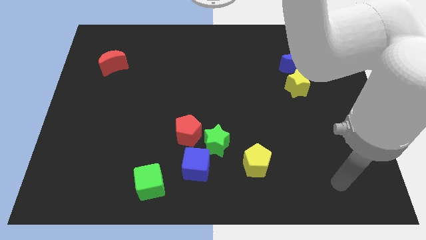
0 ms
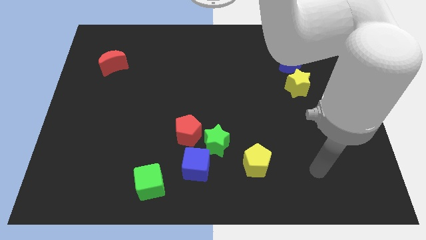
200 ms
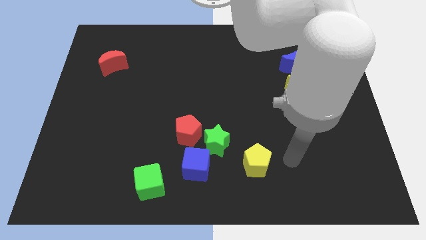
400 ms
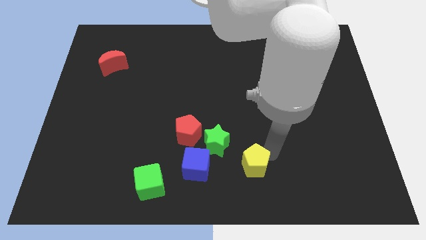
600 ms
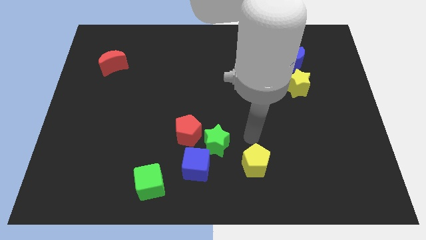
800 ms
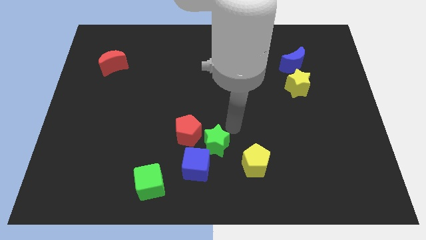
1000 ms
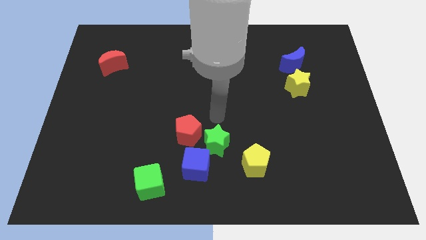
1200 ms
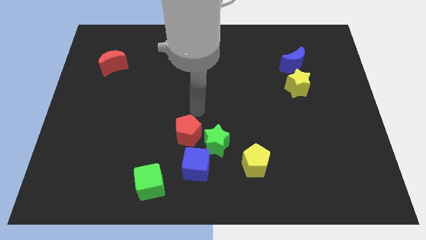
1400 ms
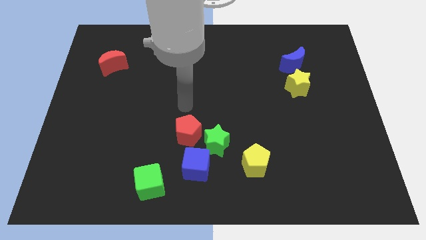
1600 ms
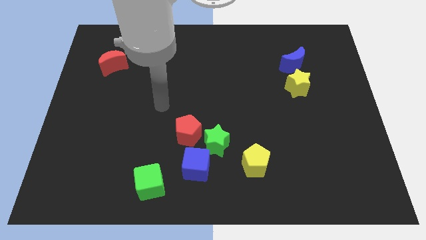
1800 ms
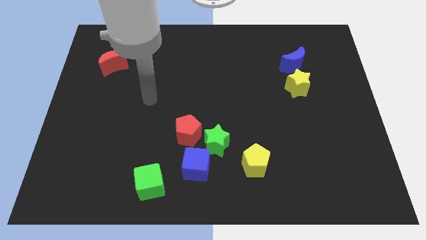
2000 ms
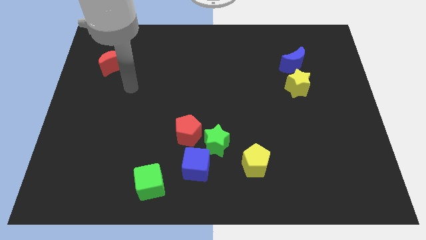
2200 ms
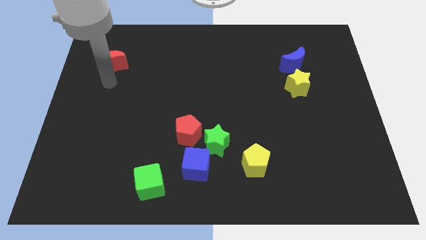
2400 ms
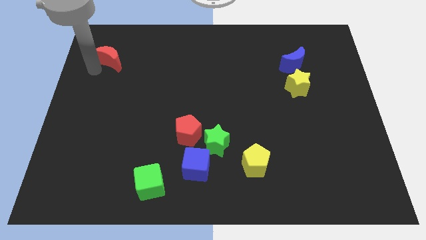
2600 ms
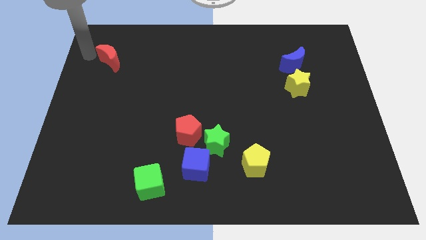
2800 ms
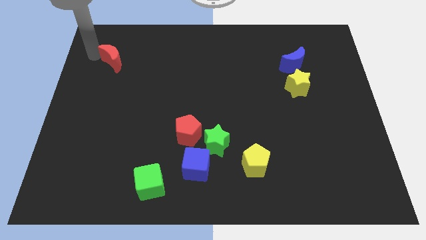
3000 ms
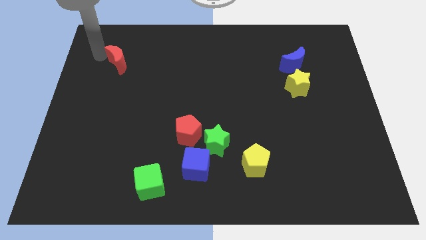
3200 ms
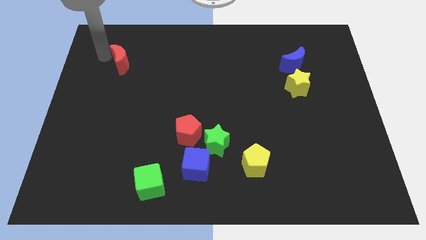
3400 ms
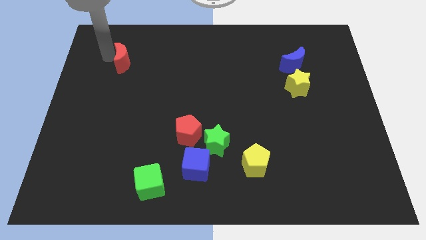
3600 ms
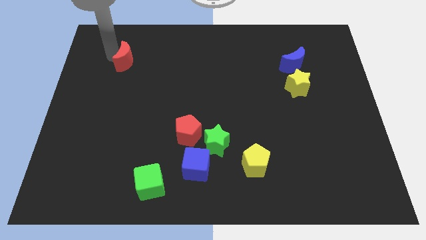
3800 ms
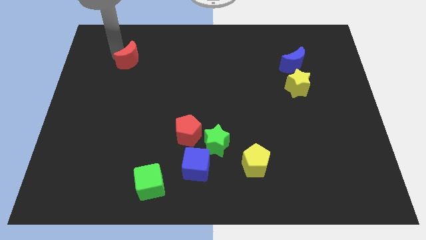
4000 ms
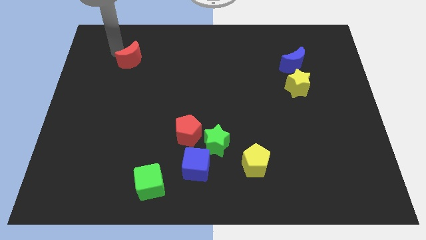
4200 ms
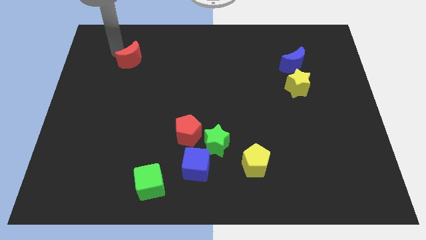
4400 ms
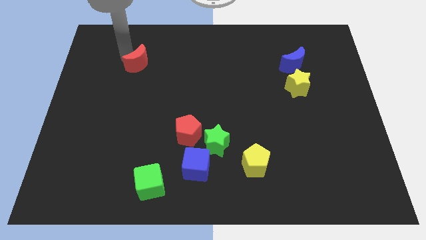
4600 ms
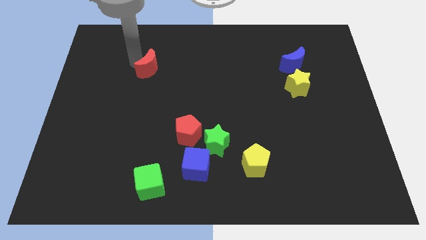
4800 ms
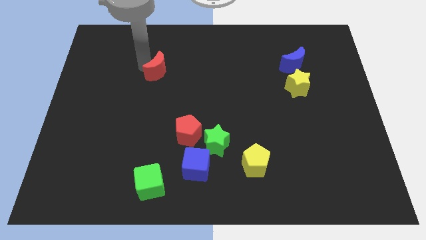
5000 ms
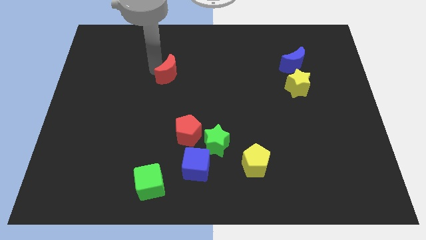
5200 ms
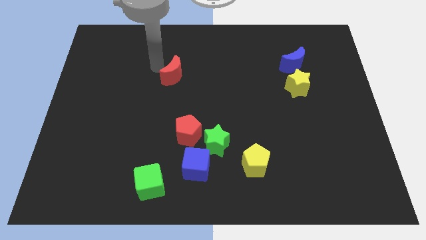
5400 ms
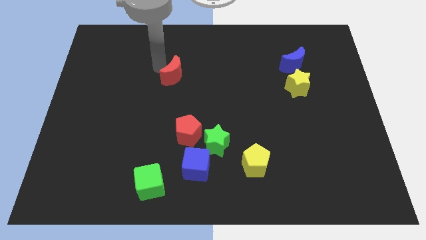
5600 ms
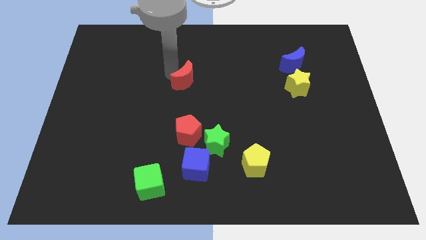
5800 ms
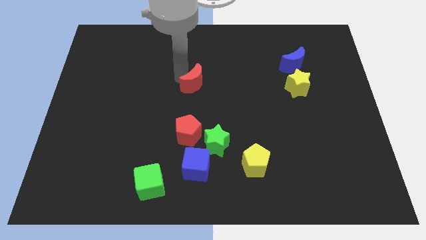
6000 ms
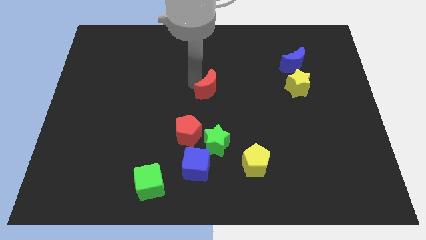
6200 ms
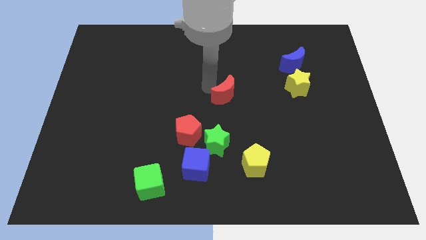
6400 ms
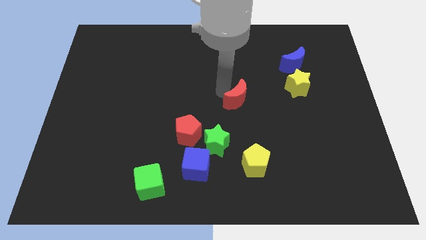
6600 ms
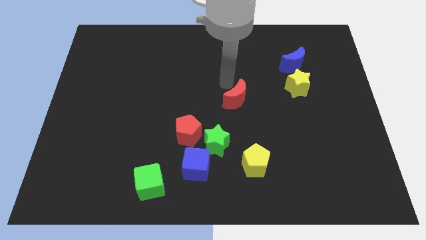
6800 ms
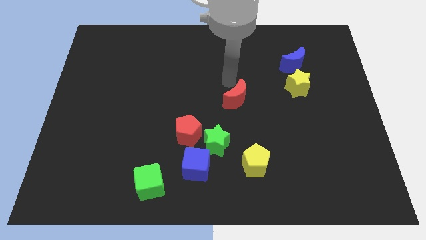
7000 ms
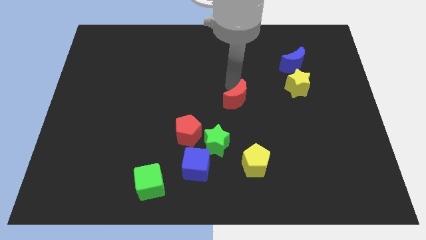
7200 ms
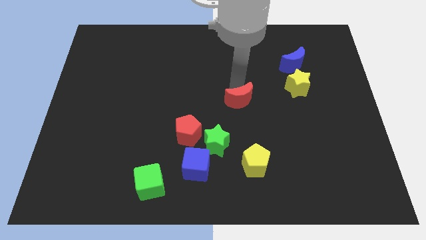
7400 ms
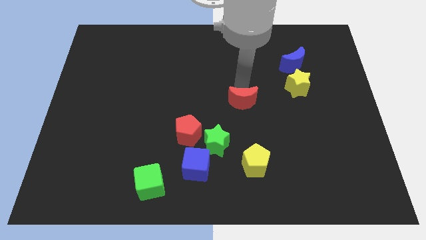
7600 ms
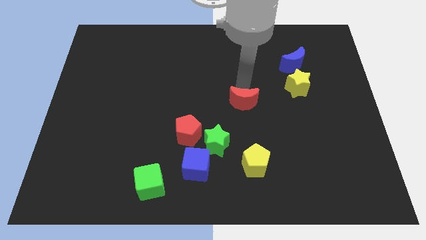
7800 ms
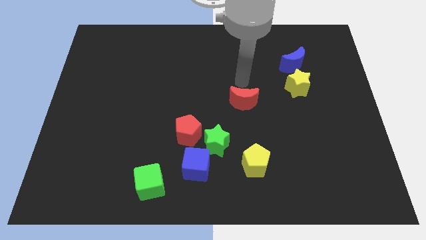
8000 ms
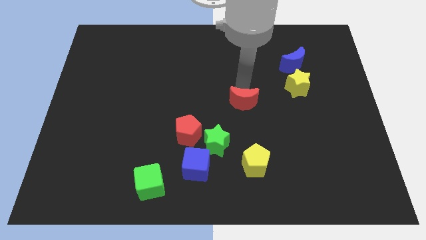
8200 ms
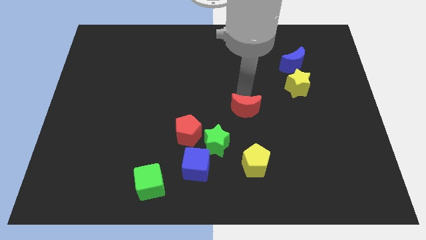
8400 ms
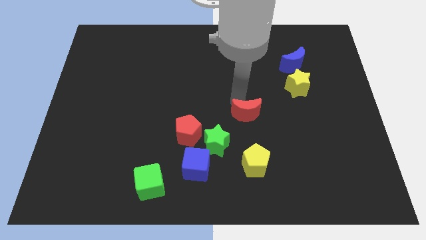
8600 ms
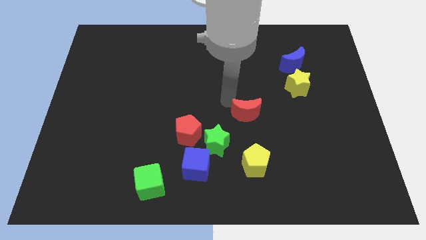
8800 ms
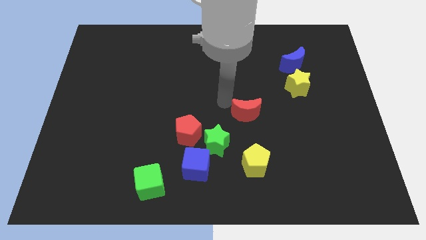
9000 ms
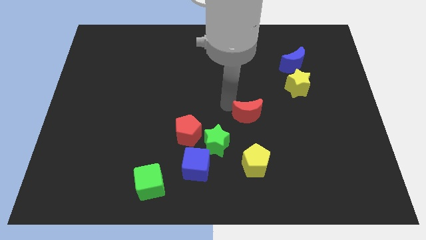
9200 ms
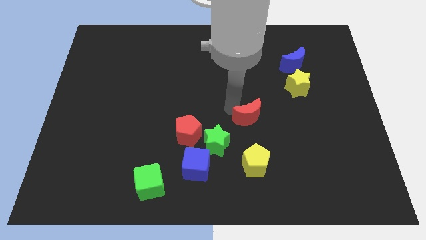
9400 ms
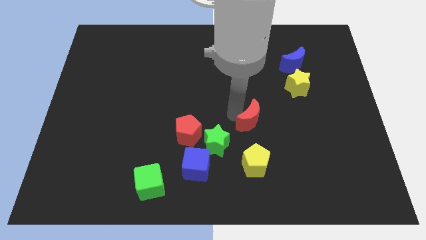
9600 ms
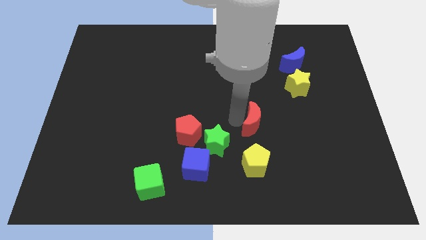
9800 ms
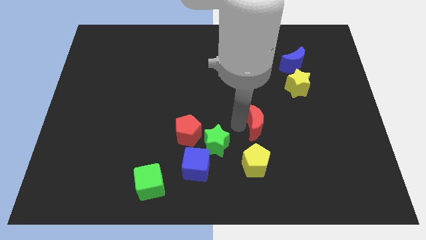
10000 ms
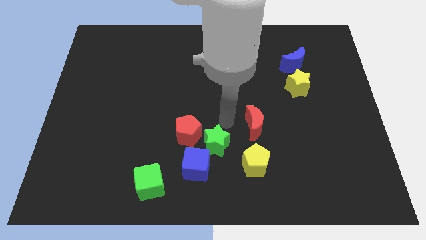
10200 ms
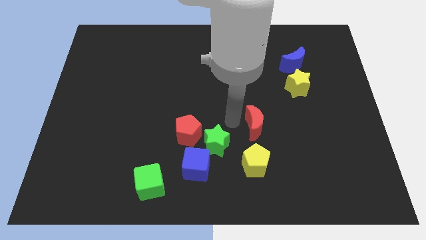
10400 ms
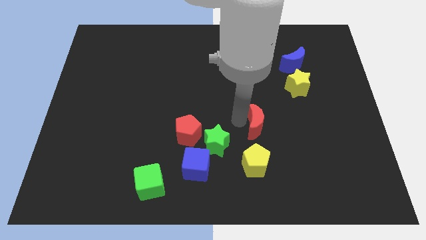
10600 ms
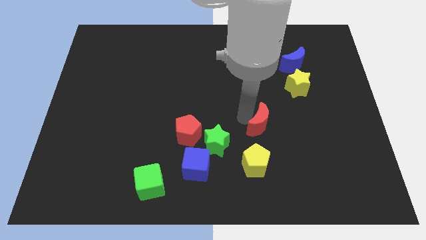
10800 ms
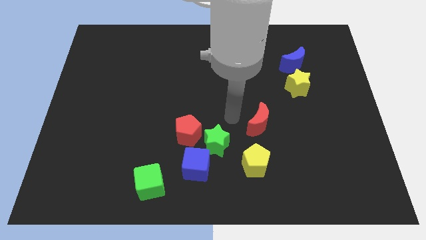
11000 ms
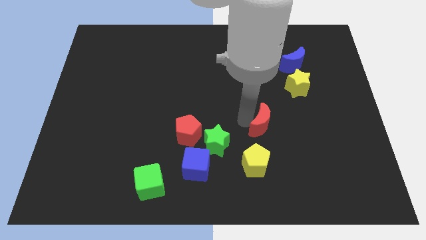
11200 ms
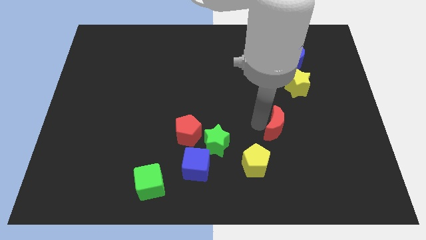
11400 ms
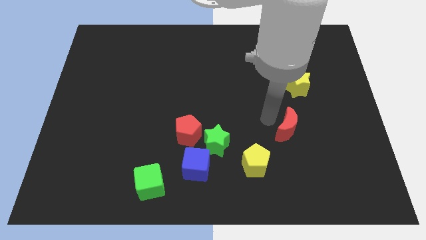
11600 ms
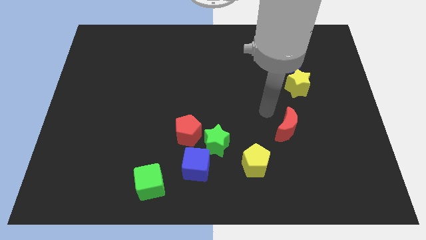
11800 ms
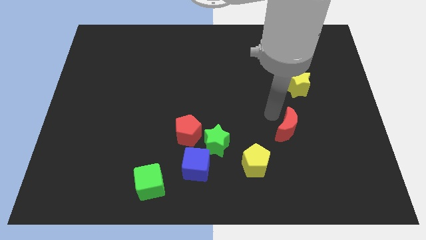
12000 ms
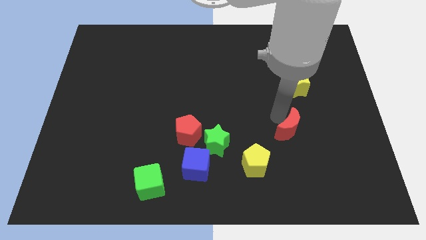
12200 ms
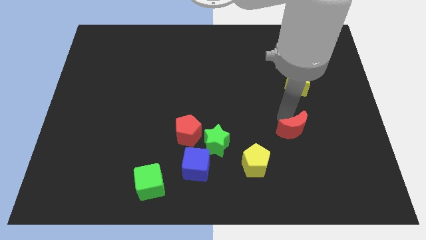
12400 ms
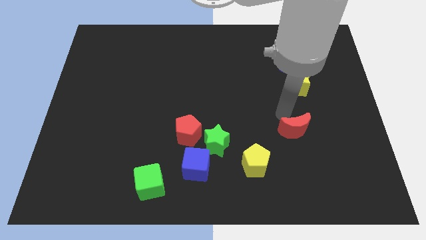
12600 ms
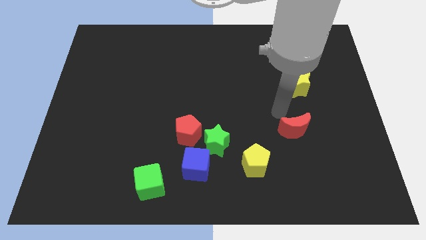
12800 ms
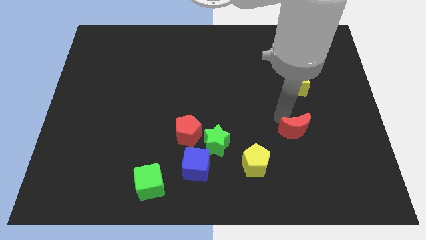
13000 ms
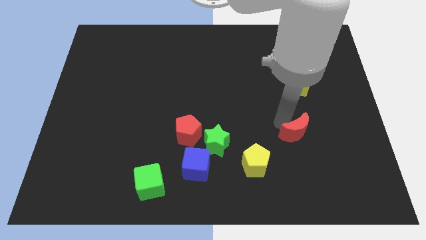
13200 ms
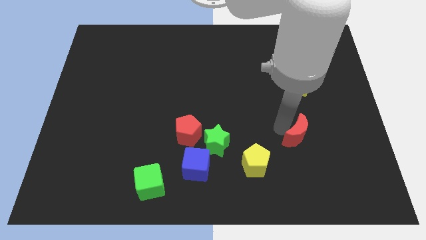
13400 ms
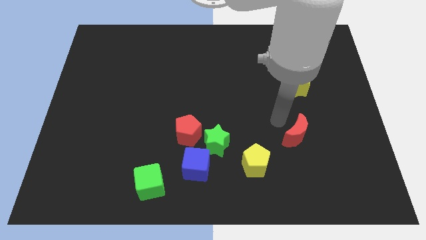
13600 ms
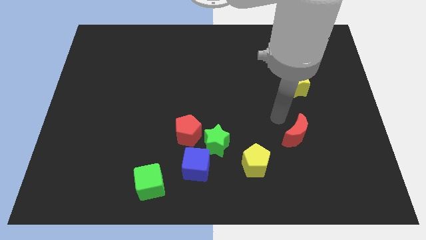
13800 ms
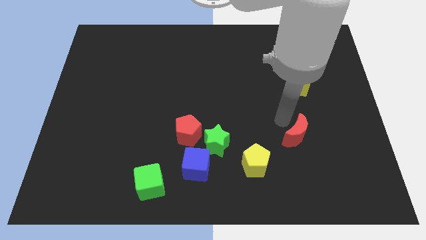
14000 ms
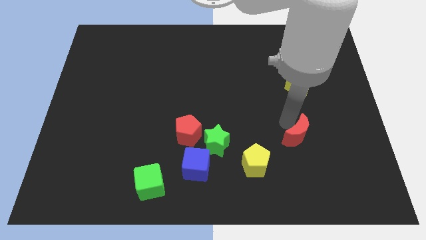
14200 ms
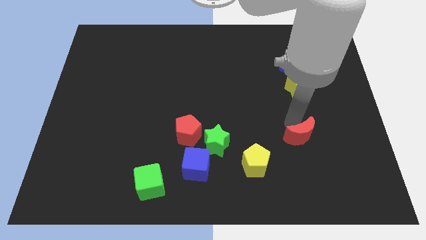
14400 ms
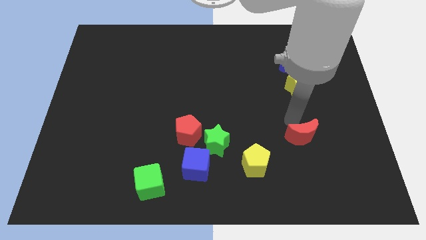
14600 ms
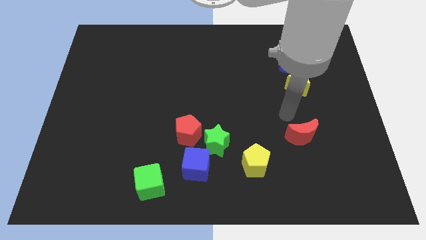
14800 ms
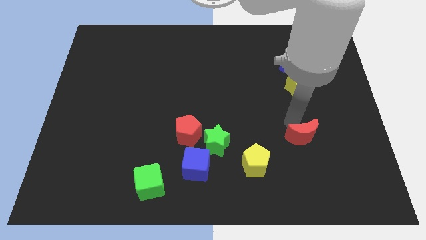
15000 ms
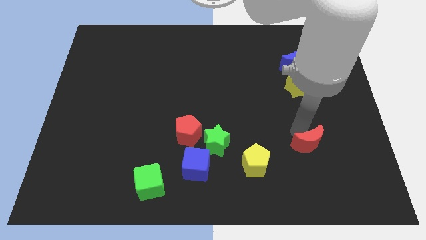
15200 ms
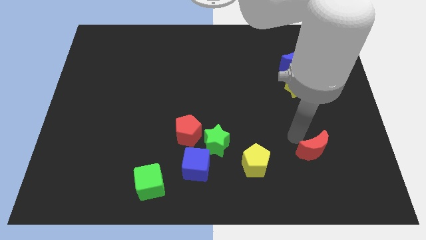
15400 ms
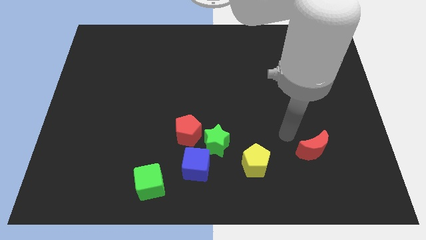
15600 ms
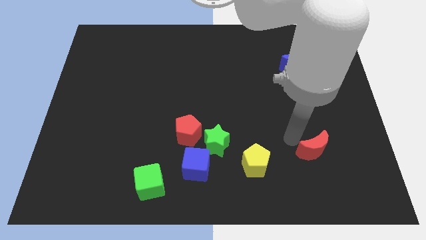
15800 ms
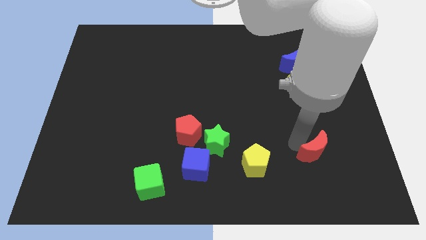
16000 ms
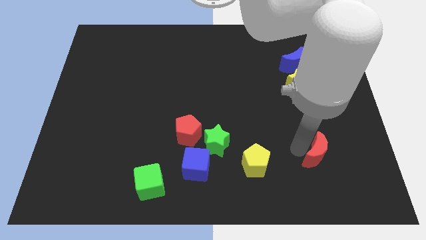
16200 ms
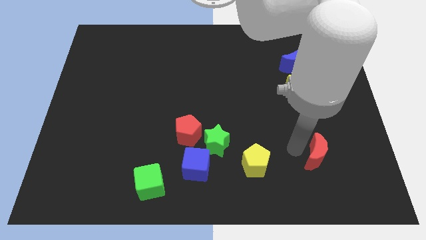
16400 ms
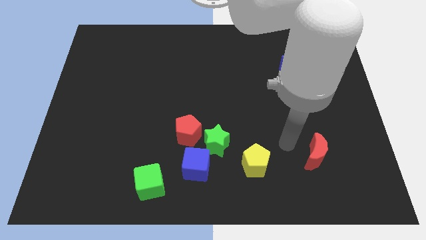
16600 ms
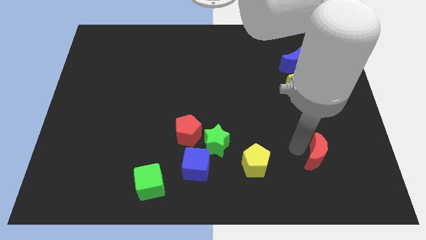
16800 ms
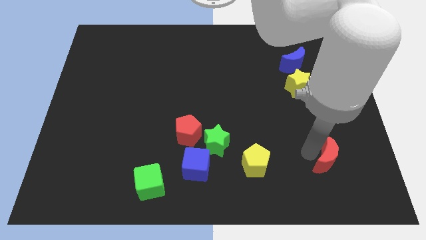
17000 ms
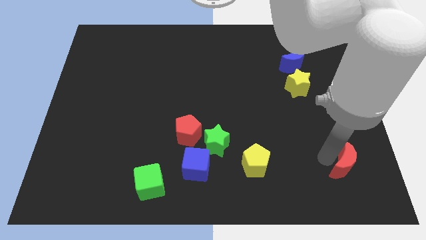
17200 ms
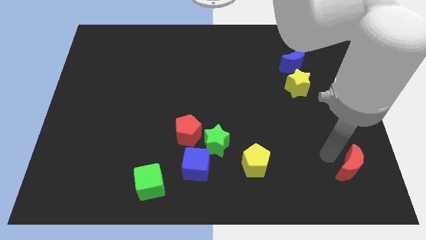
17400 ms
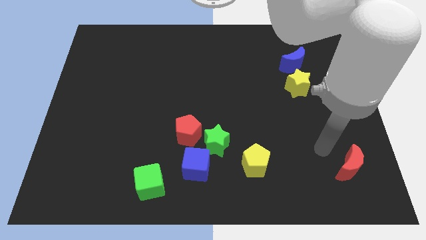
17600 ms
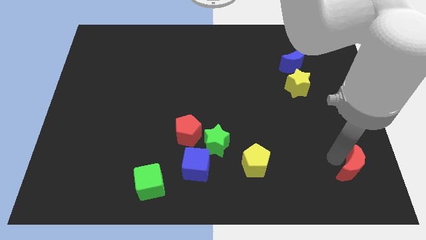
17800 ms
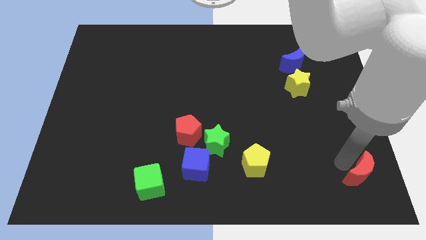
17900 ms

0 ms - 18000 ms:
move the red moon to the bottom right corner
